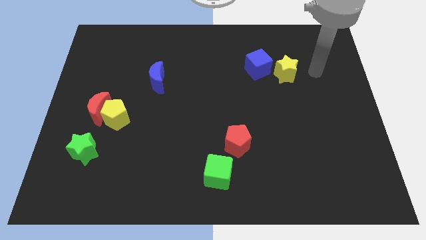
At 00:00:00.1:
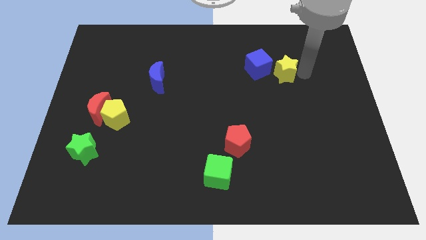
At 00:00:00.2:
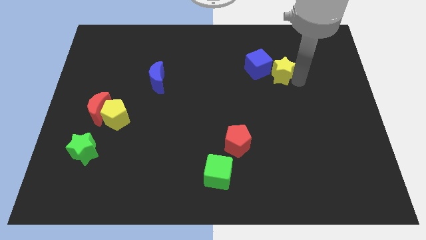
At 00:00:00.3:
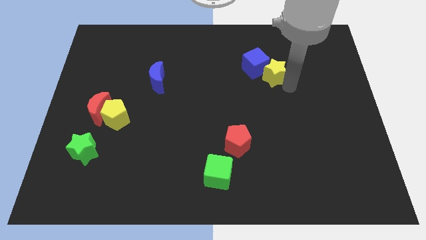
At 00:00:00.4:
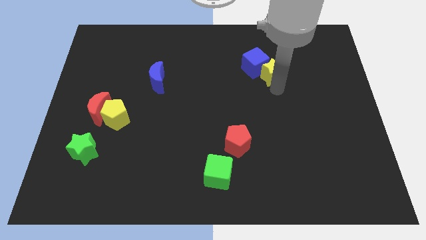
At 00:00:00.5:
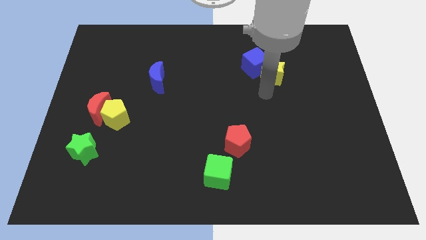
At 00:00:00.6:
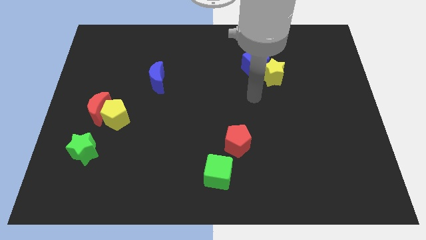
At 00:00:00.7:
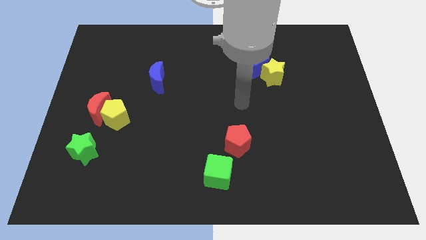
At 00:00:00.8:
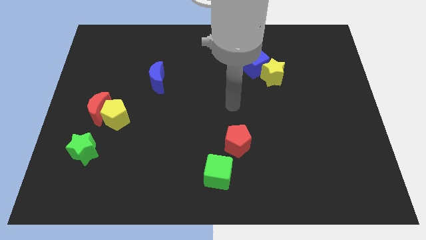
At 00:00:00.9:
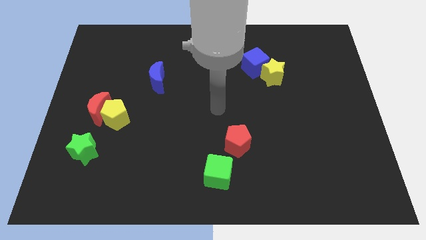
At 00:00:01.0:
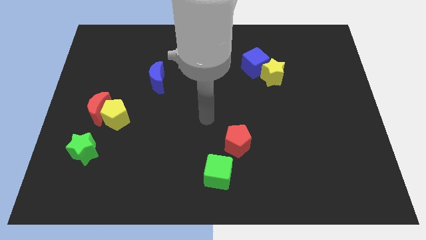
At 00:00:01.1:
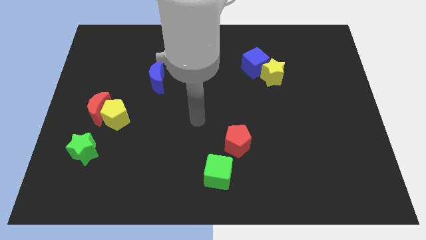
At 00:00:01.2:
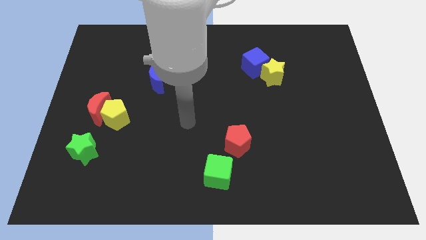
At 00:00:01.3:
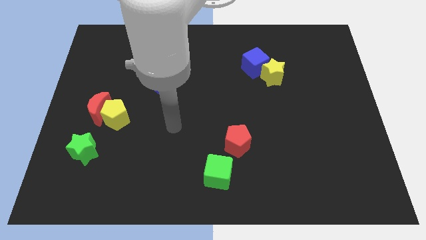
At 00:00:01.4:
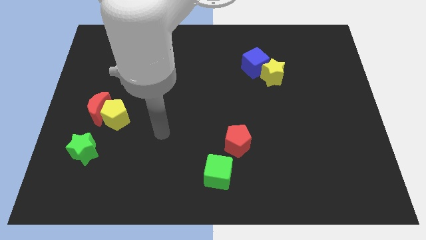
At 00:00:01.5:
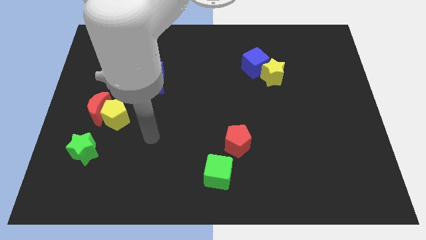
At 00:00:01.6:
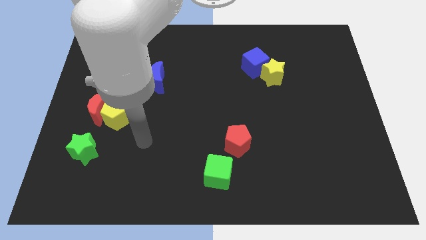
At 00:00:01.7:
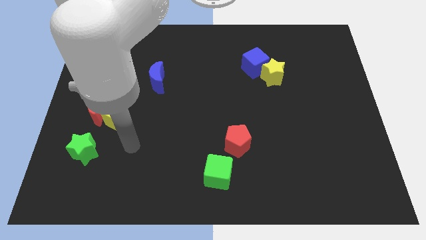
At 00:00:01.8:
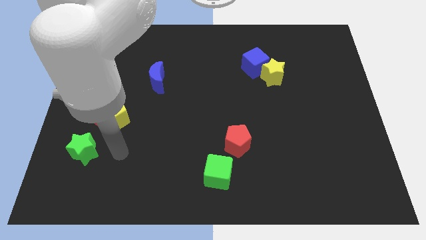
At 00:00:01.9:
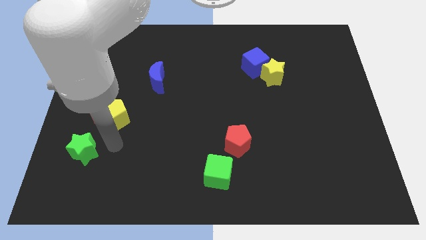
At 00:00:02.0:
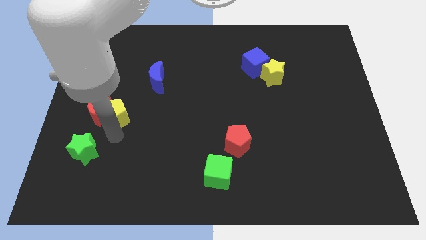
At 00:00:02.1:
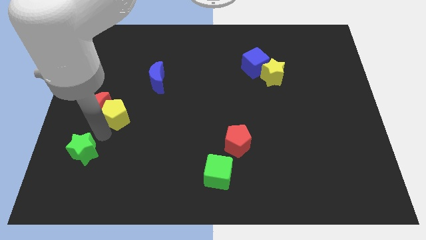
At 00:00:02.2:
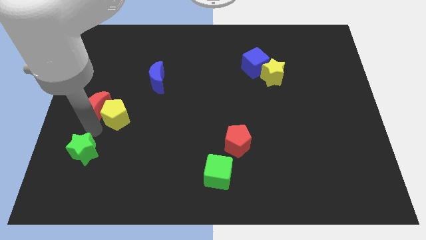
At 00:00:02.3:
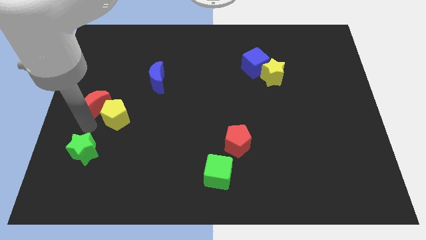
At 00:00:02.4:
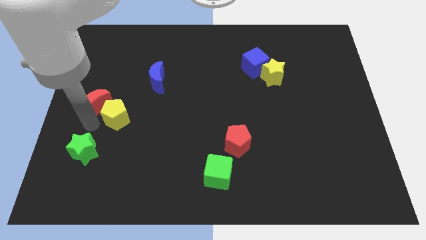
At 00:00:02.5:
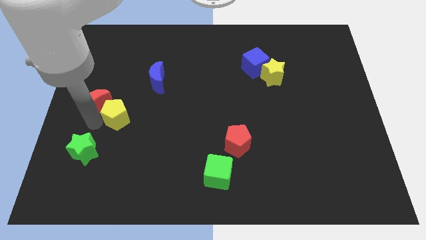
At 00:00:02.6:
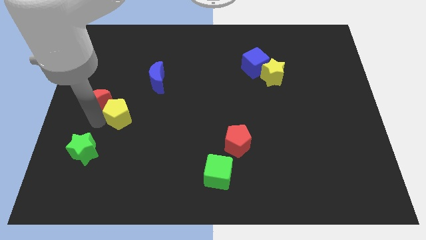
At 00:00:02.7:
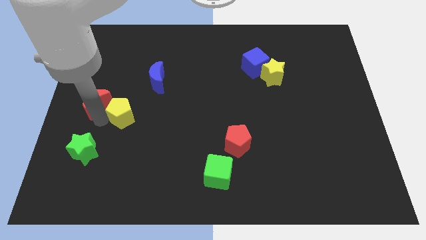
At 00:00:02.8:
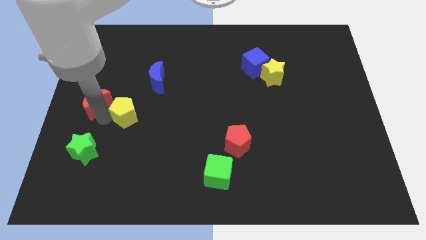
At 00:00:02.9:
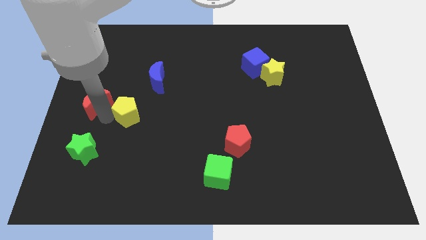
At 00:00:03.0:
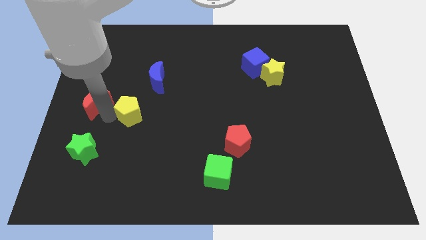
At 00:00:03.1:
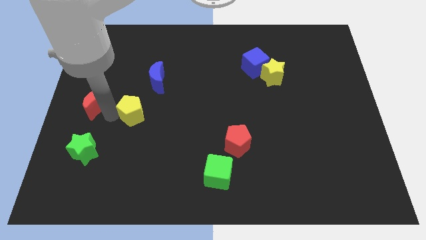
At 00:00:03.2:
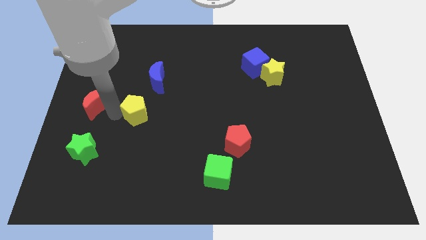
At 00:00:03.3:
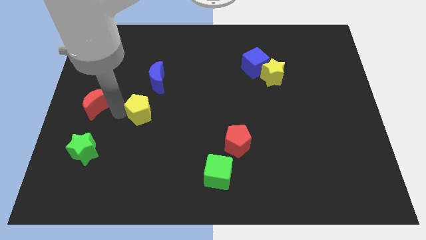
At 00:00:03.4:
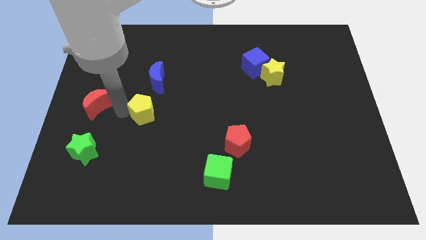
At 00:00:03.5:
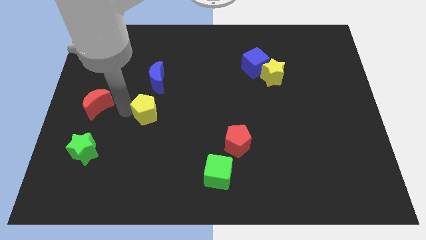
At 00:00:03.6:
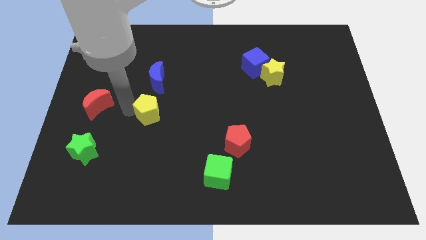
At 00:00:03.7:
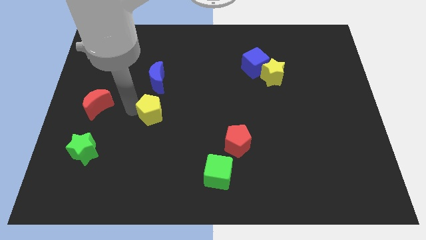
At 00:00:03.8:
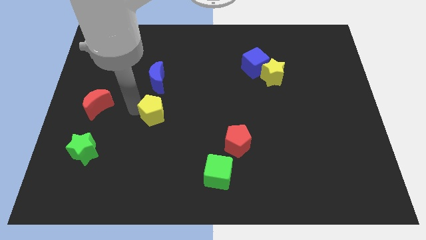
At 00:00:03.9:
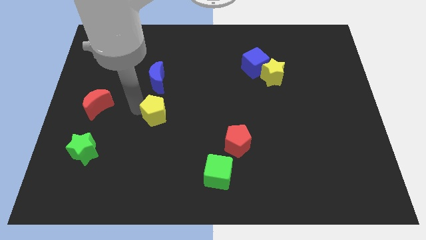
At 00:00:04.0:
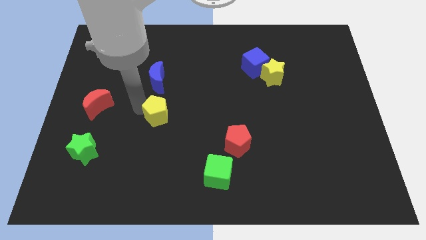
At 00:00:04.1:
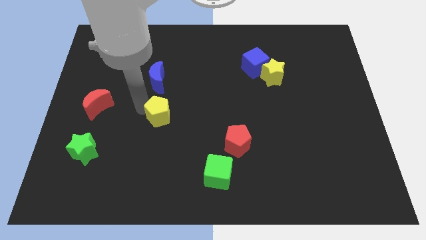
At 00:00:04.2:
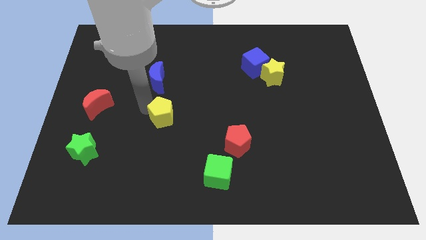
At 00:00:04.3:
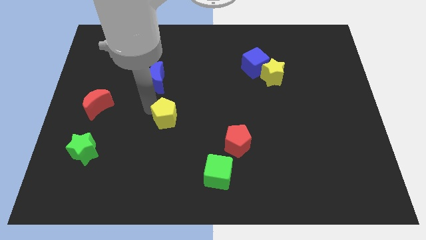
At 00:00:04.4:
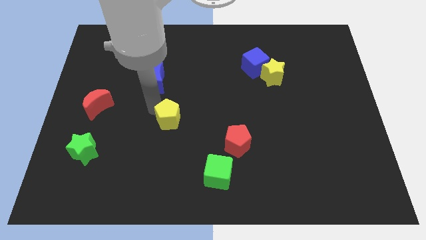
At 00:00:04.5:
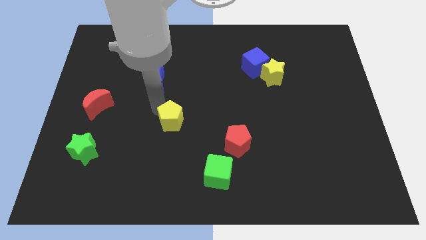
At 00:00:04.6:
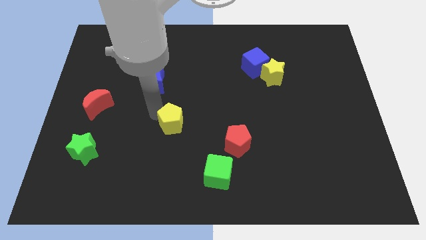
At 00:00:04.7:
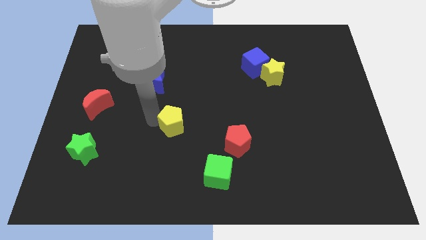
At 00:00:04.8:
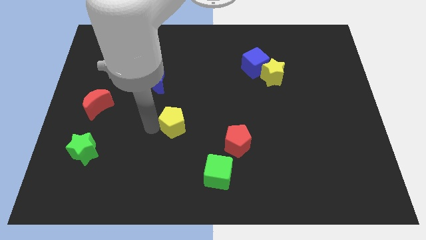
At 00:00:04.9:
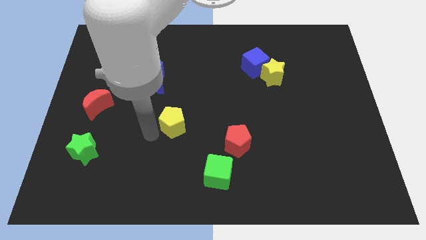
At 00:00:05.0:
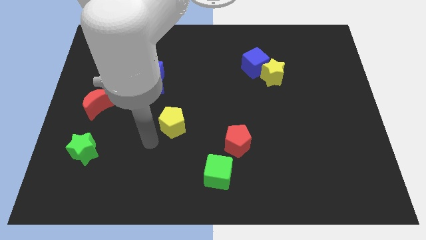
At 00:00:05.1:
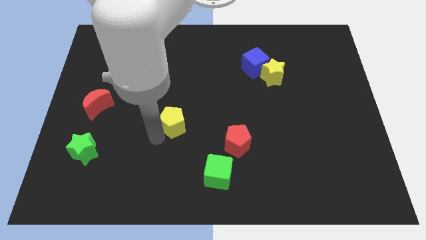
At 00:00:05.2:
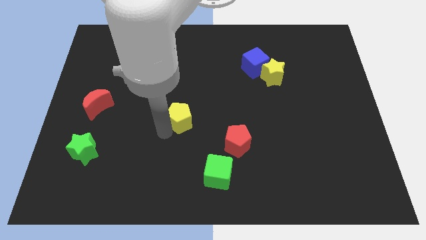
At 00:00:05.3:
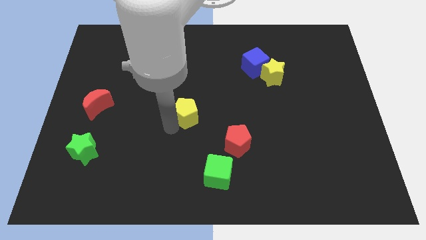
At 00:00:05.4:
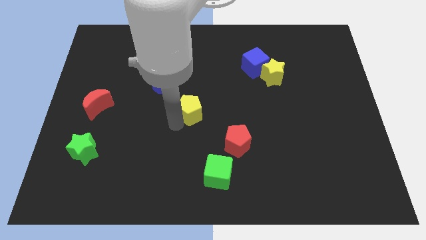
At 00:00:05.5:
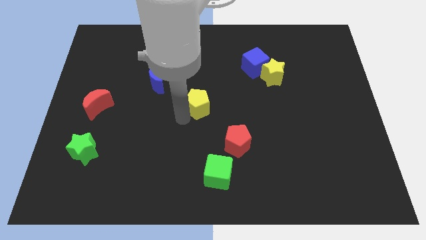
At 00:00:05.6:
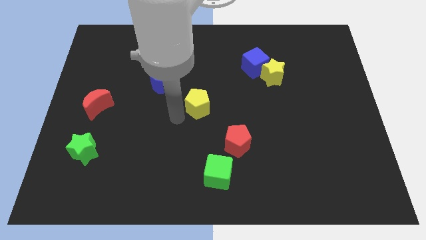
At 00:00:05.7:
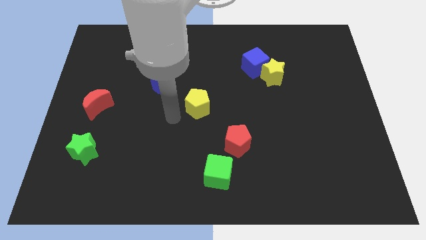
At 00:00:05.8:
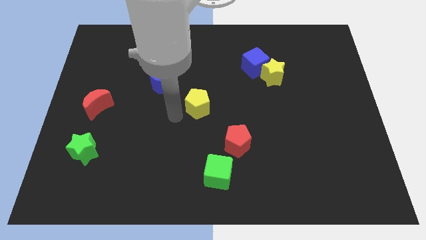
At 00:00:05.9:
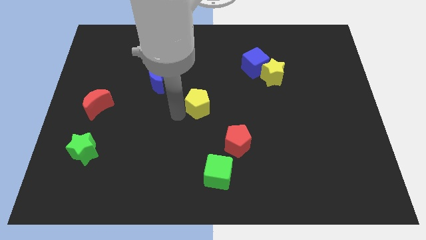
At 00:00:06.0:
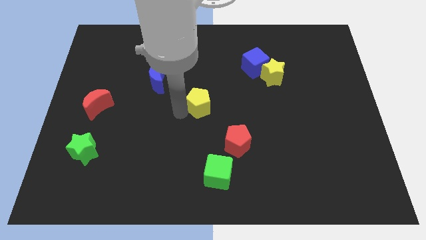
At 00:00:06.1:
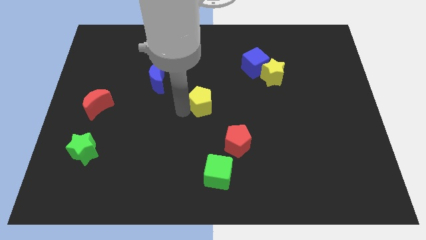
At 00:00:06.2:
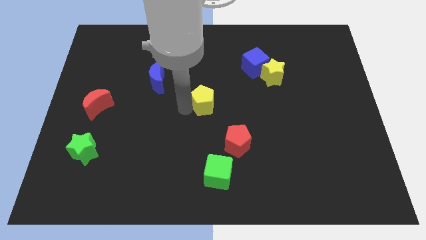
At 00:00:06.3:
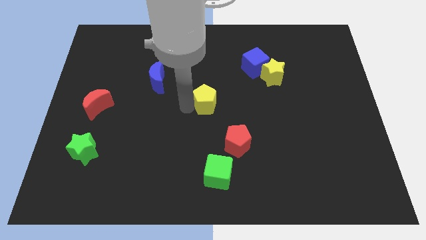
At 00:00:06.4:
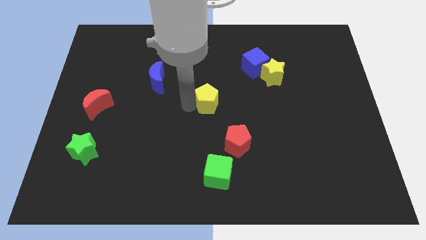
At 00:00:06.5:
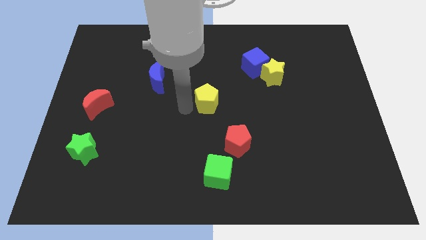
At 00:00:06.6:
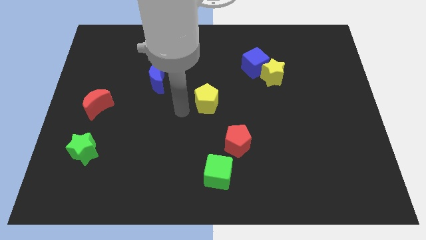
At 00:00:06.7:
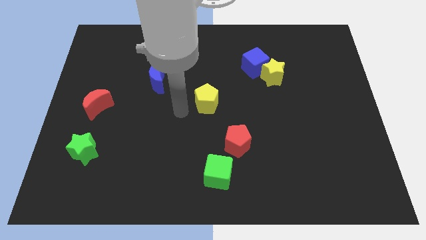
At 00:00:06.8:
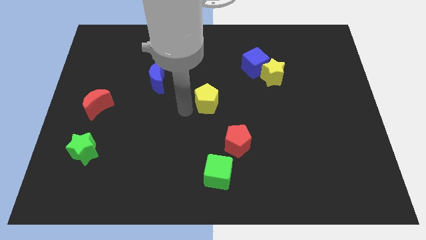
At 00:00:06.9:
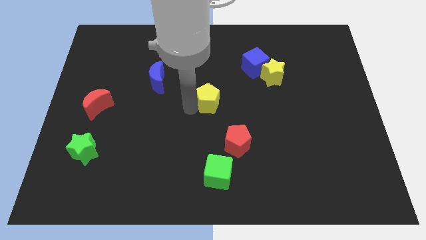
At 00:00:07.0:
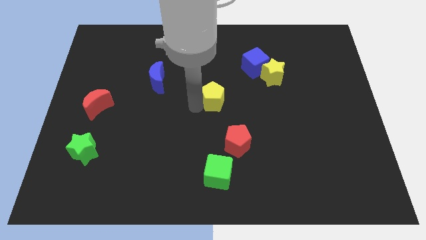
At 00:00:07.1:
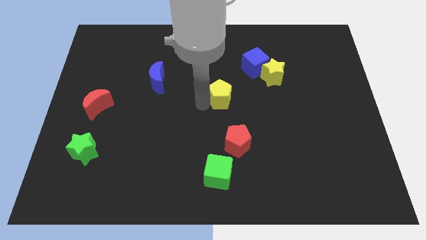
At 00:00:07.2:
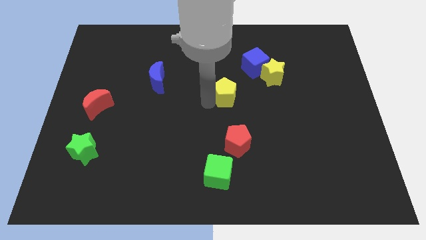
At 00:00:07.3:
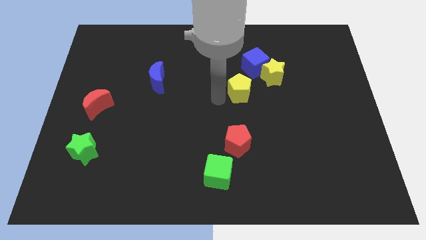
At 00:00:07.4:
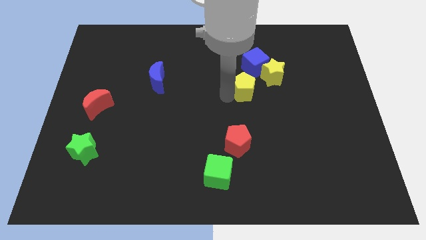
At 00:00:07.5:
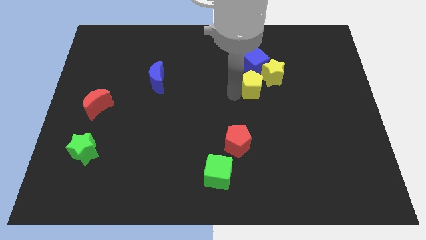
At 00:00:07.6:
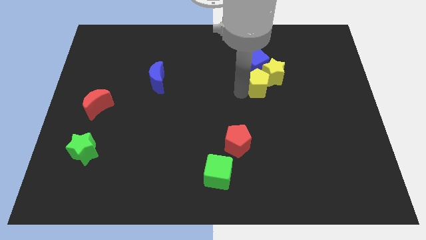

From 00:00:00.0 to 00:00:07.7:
move the yellow pentagon close to the yellow star
